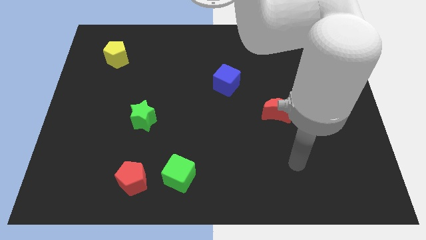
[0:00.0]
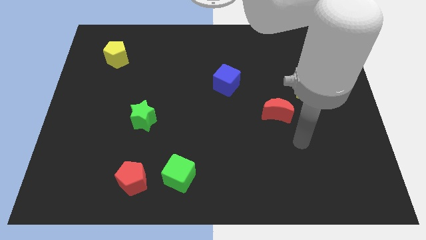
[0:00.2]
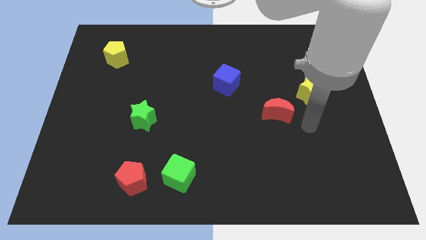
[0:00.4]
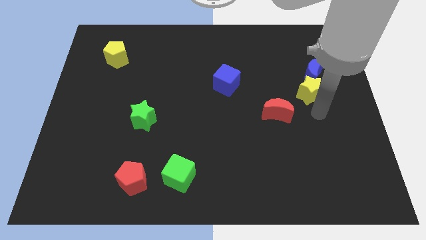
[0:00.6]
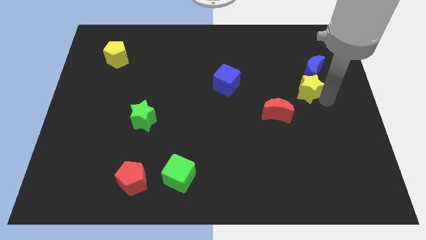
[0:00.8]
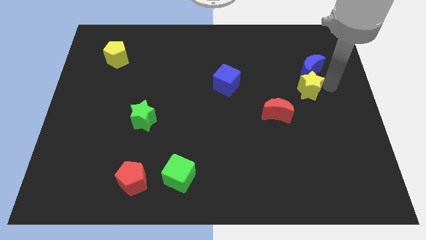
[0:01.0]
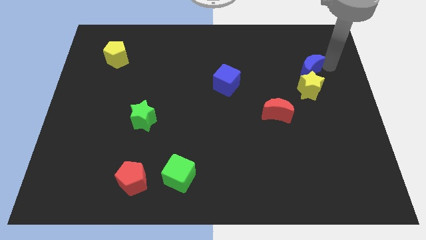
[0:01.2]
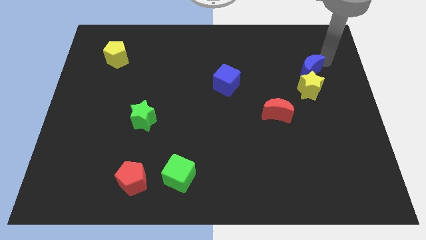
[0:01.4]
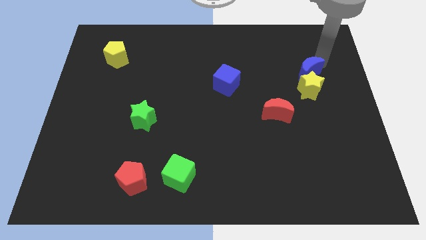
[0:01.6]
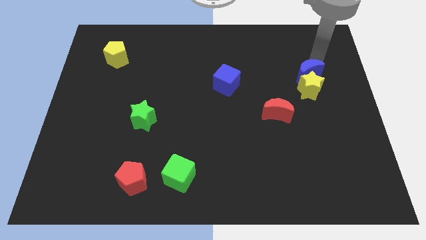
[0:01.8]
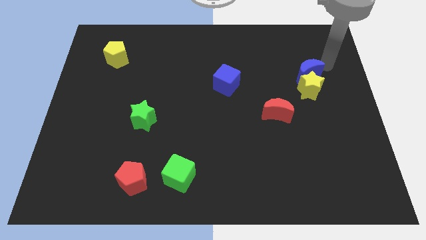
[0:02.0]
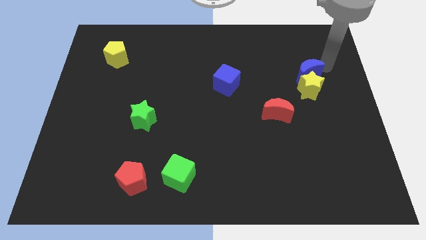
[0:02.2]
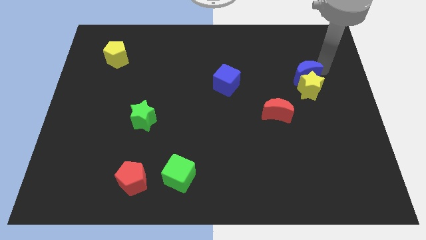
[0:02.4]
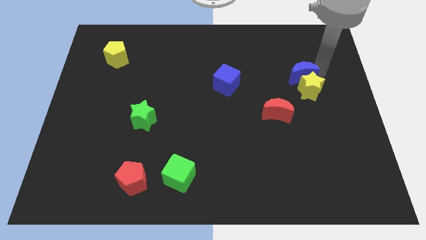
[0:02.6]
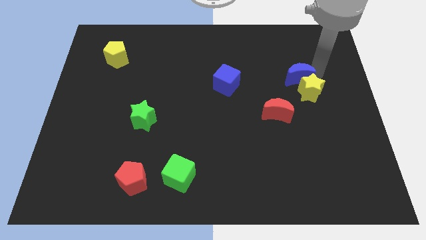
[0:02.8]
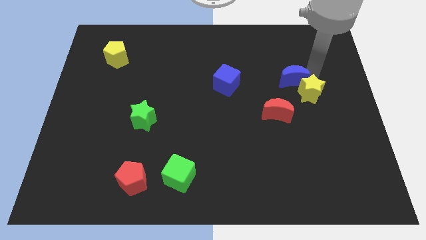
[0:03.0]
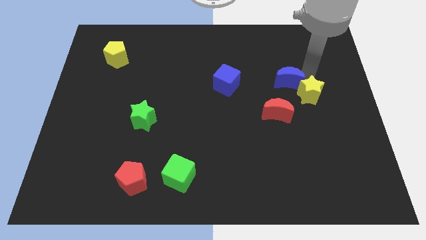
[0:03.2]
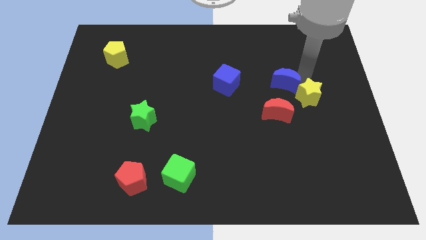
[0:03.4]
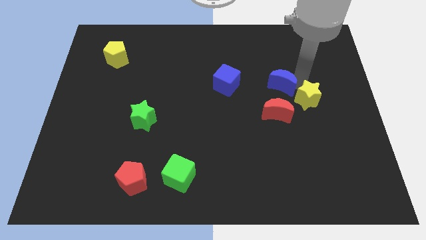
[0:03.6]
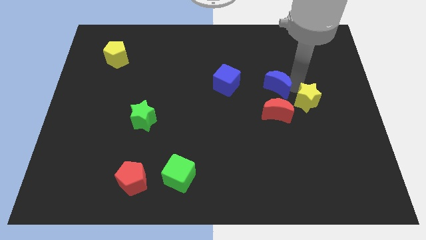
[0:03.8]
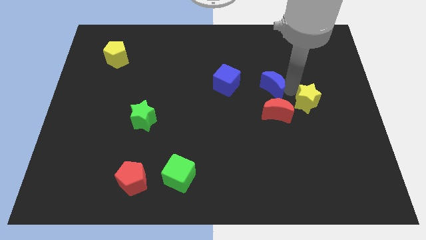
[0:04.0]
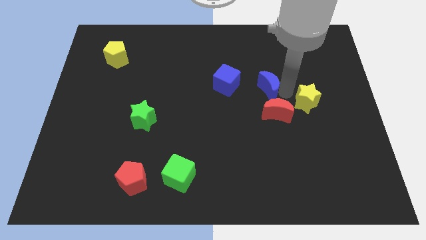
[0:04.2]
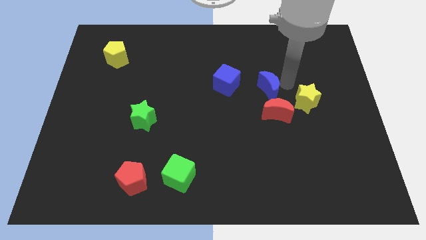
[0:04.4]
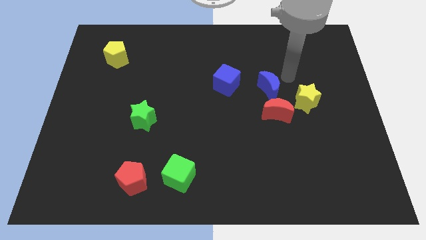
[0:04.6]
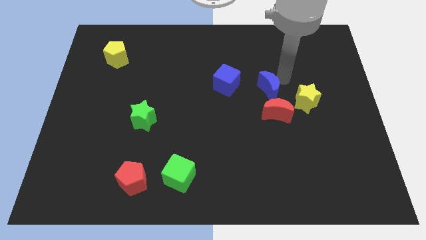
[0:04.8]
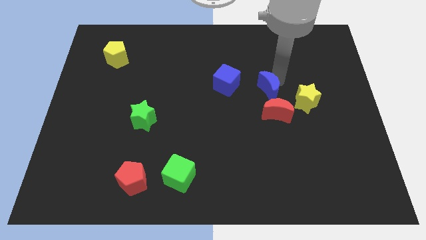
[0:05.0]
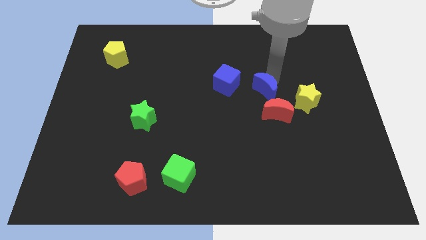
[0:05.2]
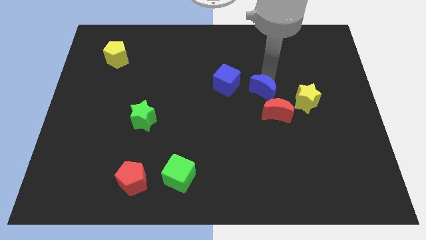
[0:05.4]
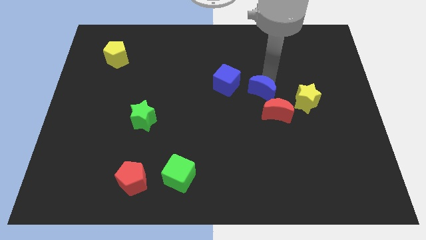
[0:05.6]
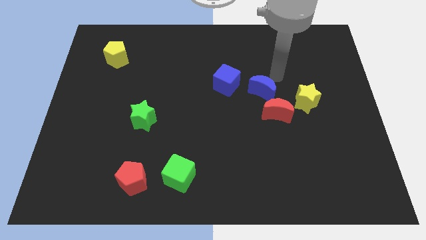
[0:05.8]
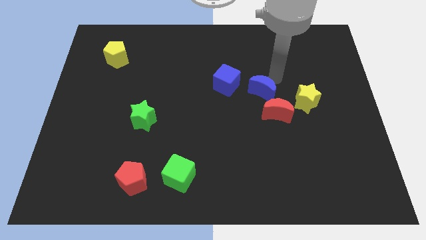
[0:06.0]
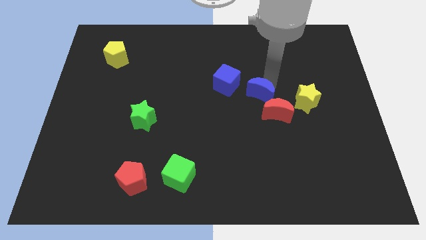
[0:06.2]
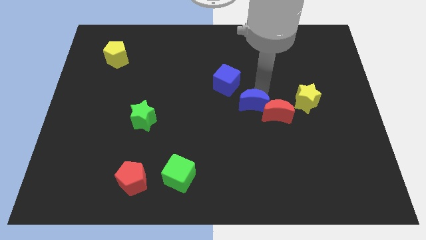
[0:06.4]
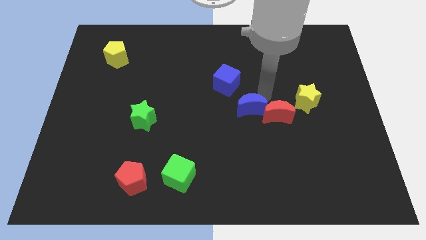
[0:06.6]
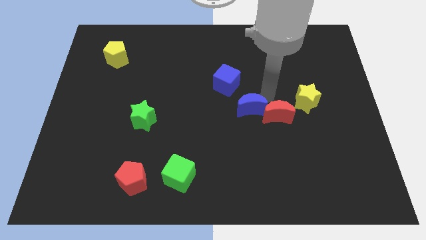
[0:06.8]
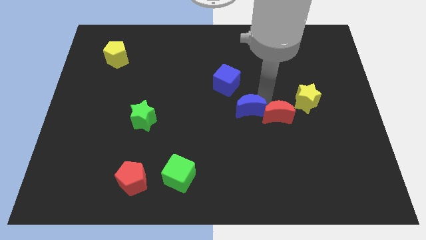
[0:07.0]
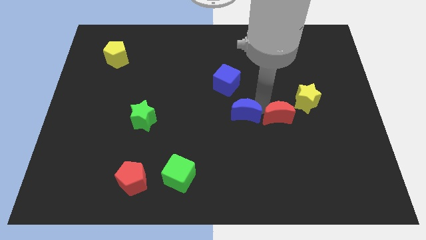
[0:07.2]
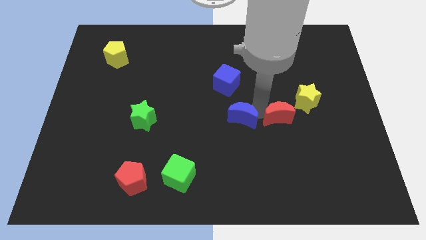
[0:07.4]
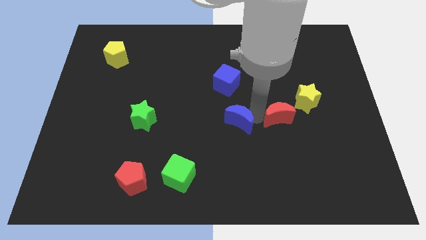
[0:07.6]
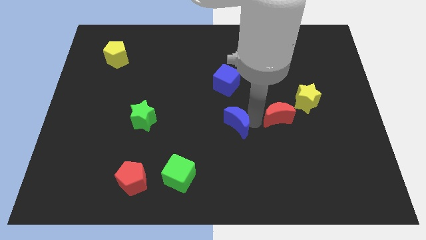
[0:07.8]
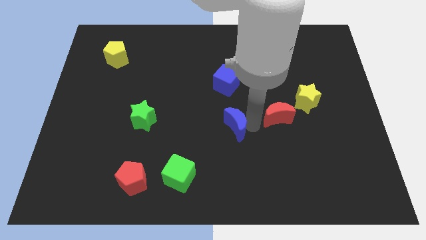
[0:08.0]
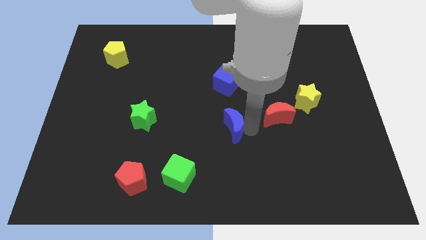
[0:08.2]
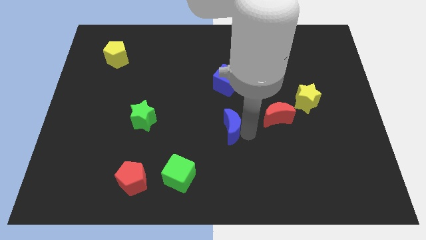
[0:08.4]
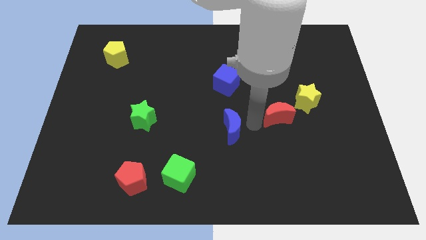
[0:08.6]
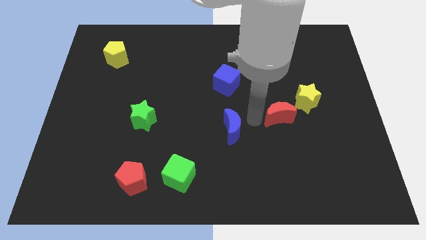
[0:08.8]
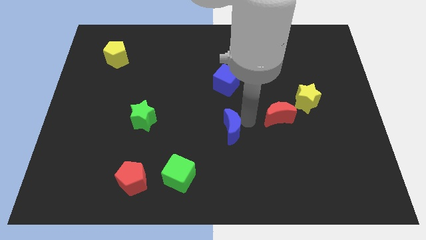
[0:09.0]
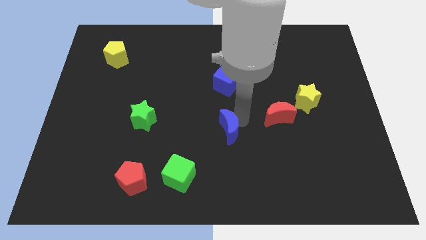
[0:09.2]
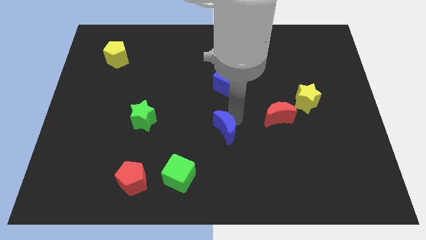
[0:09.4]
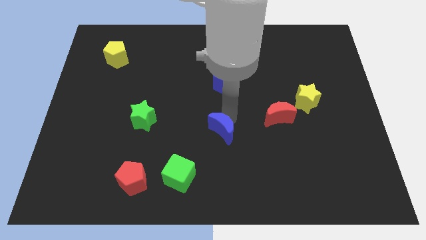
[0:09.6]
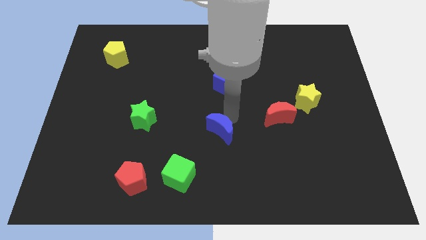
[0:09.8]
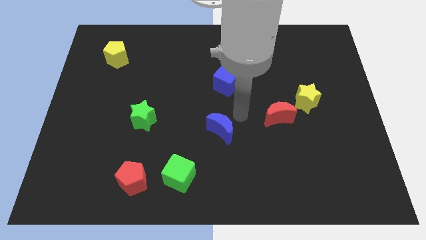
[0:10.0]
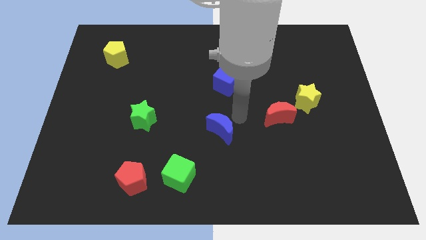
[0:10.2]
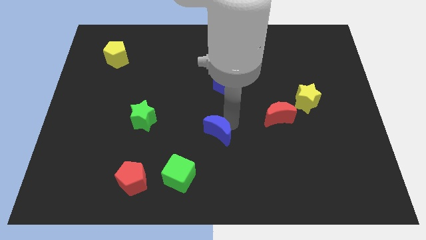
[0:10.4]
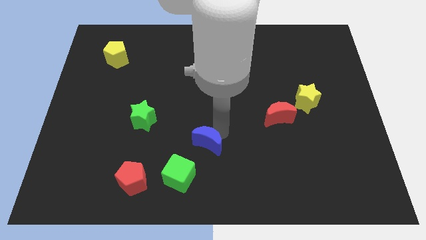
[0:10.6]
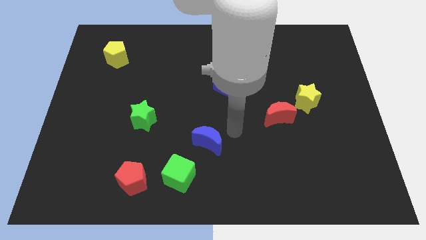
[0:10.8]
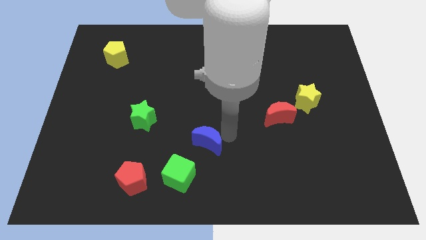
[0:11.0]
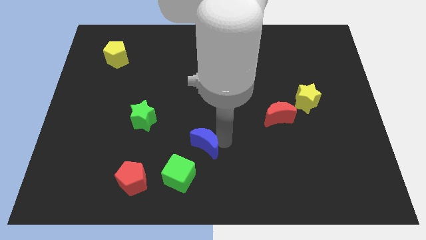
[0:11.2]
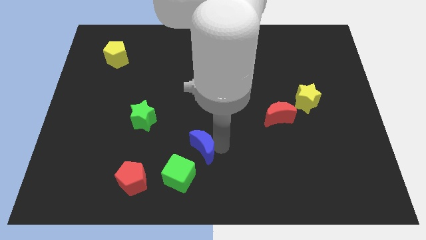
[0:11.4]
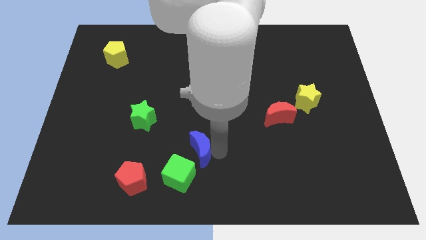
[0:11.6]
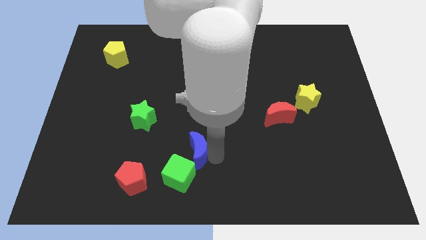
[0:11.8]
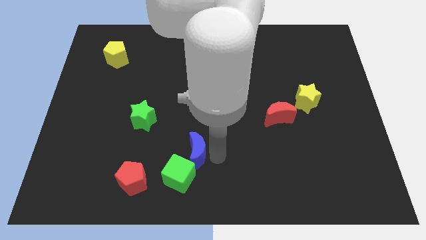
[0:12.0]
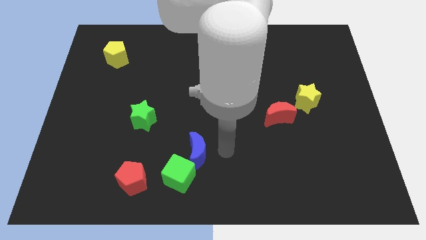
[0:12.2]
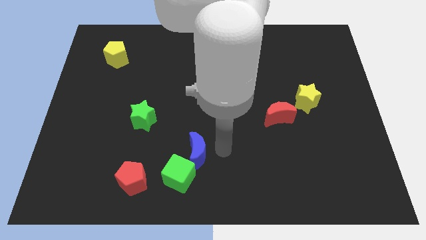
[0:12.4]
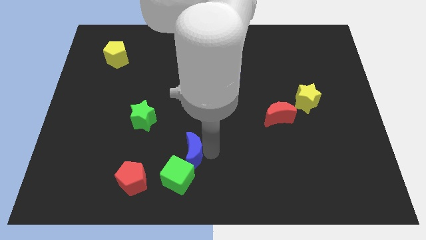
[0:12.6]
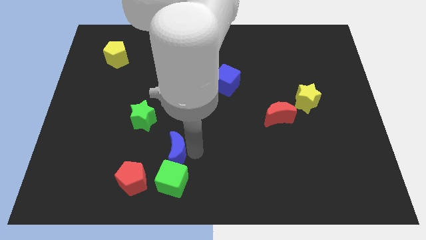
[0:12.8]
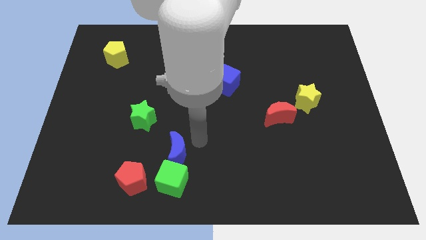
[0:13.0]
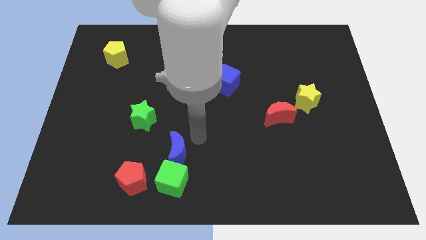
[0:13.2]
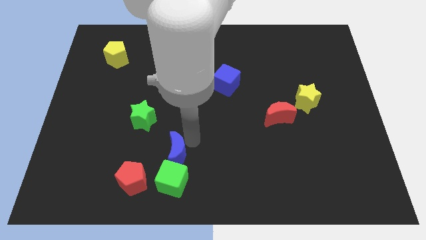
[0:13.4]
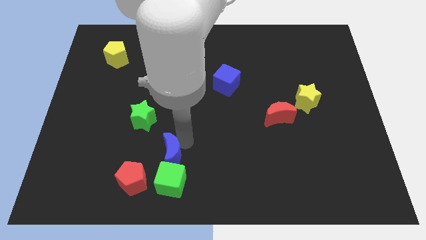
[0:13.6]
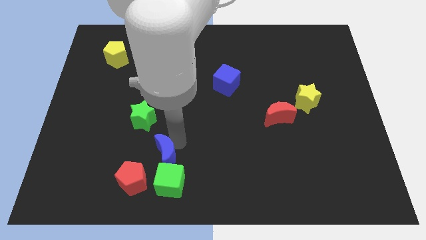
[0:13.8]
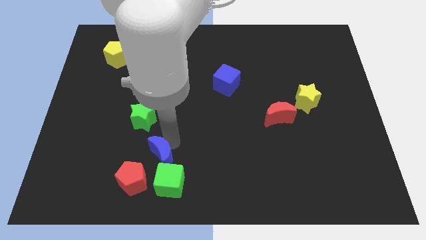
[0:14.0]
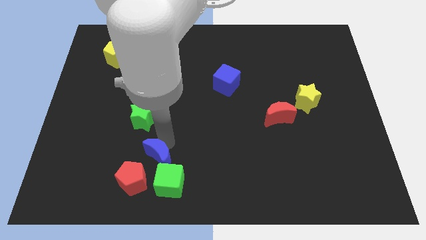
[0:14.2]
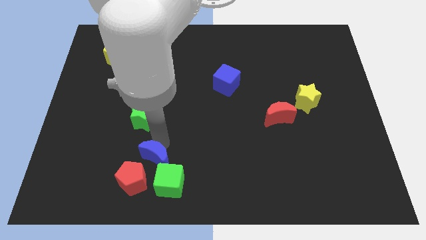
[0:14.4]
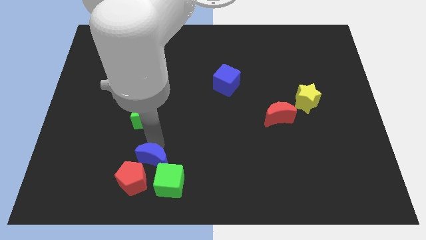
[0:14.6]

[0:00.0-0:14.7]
put the blue moon towards the red pentagon

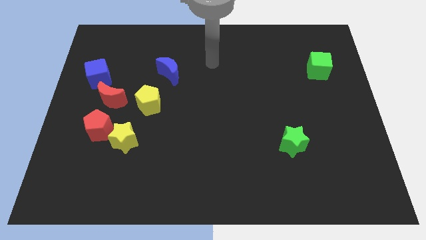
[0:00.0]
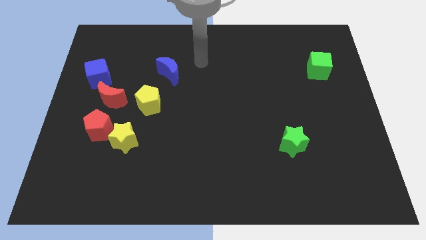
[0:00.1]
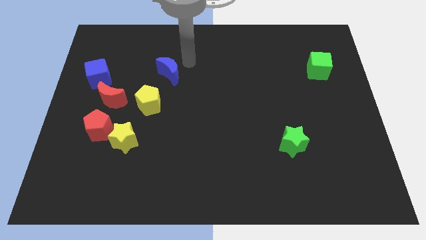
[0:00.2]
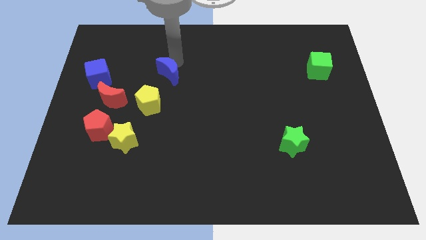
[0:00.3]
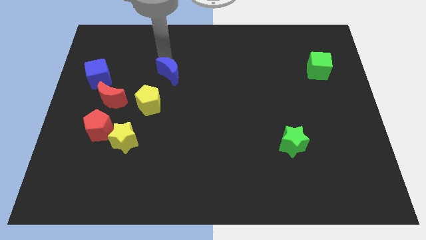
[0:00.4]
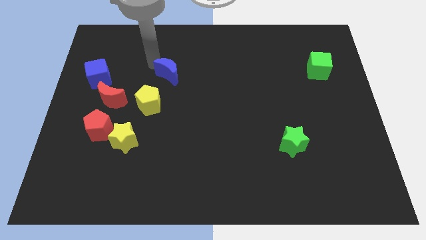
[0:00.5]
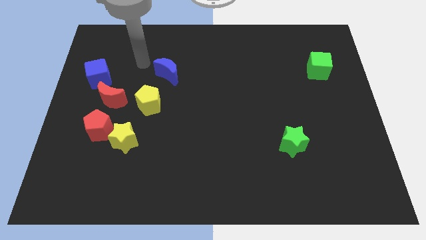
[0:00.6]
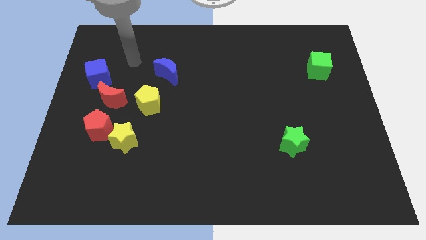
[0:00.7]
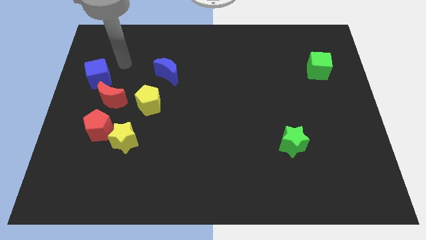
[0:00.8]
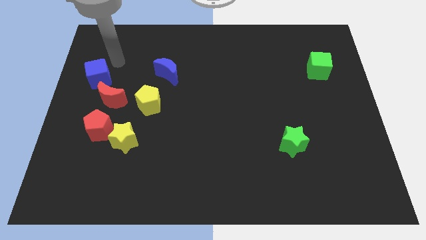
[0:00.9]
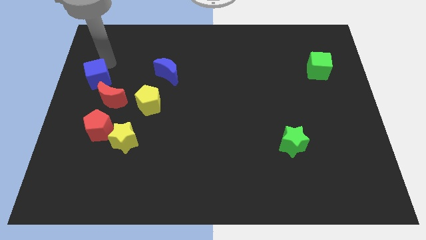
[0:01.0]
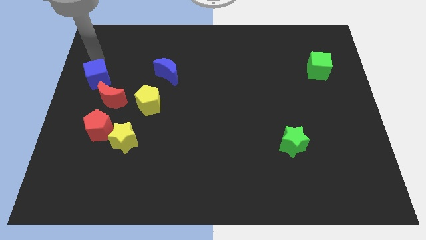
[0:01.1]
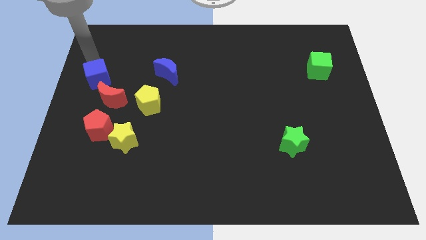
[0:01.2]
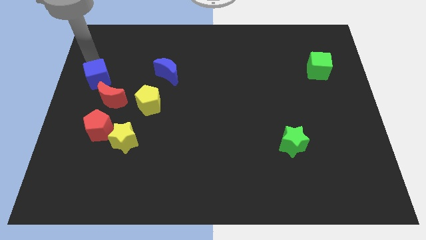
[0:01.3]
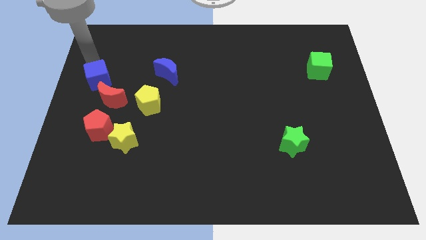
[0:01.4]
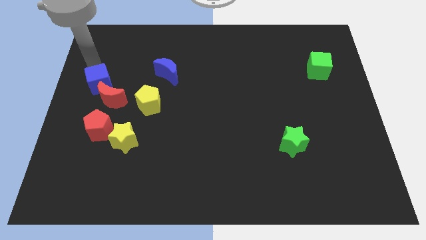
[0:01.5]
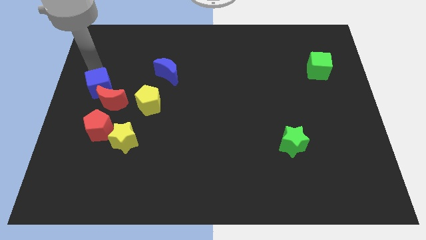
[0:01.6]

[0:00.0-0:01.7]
push the blue cube next to the red moon
